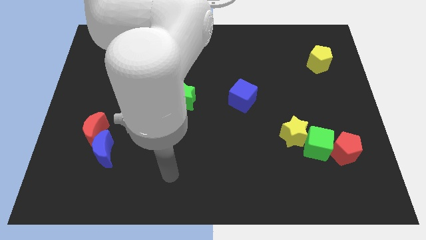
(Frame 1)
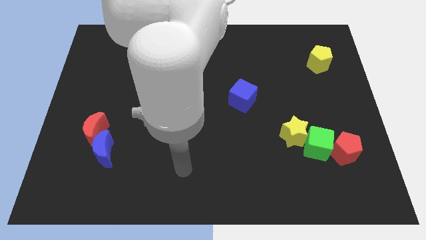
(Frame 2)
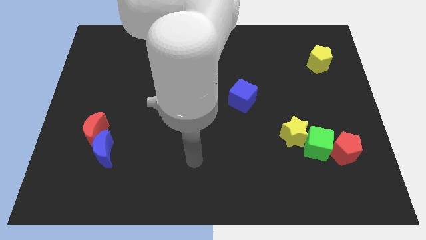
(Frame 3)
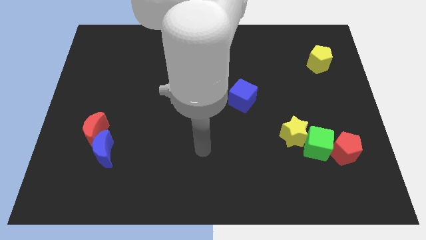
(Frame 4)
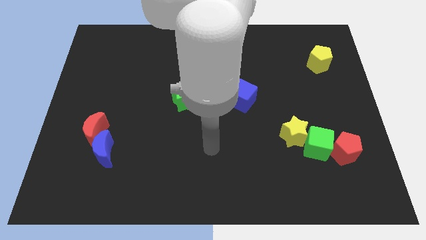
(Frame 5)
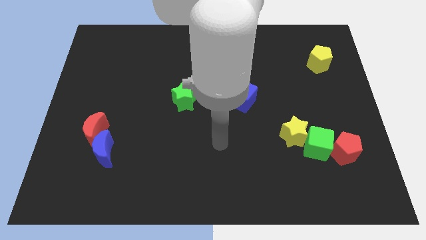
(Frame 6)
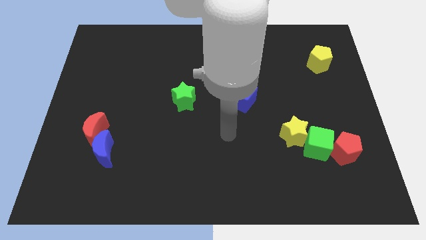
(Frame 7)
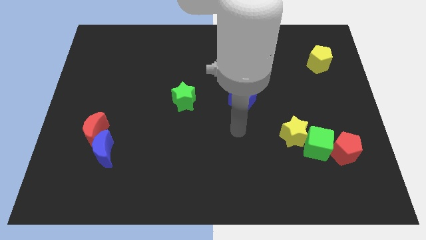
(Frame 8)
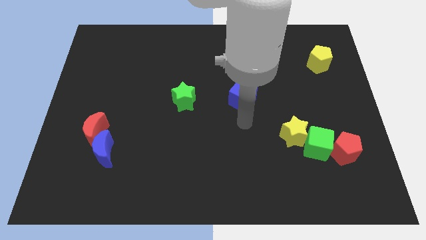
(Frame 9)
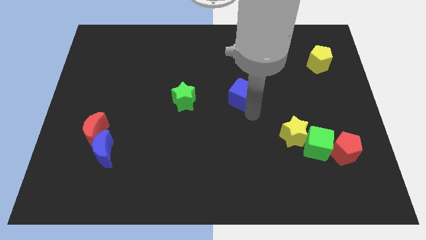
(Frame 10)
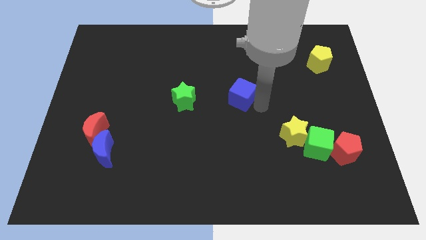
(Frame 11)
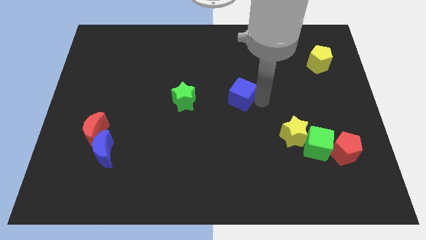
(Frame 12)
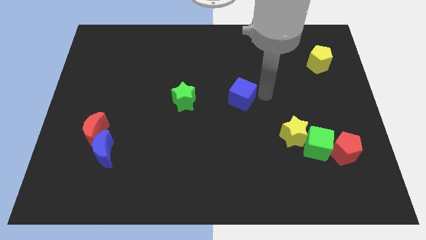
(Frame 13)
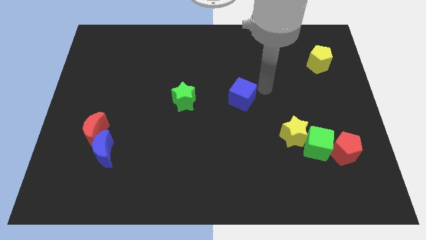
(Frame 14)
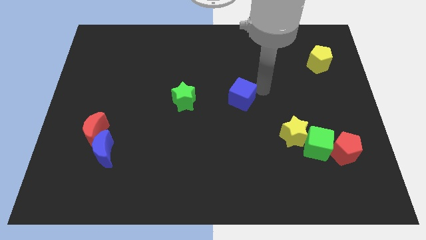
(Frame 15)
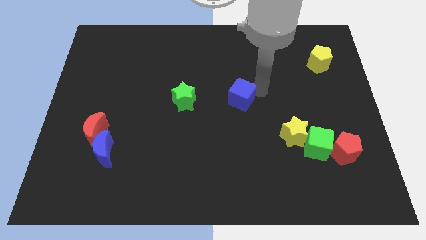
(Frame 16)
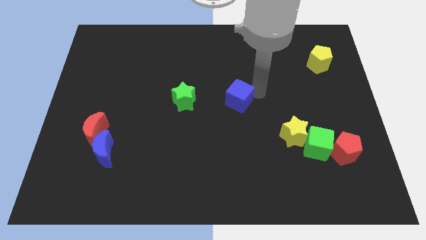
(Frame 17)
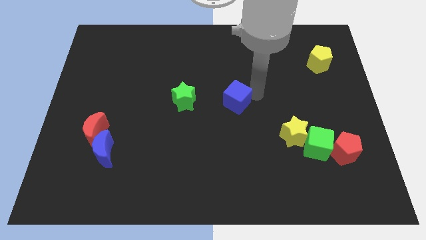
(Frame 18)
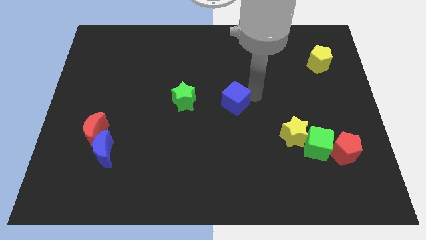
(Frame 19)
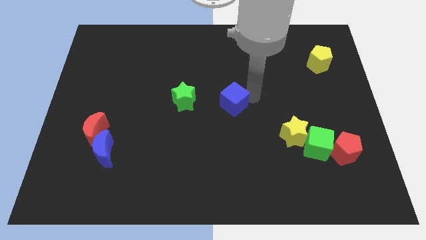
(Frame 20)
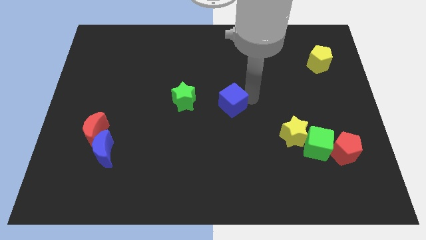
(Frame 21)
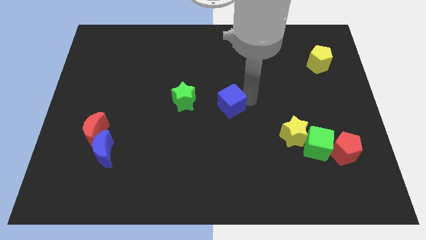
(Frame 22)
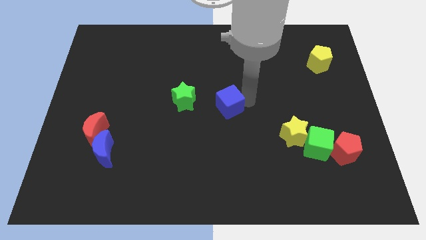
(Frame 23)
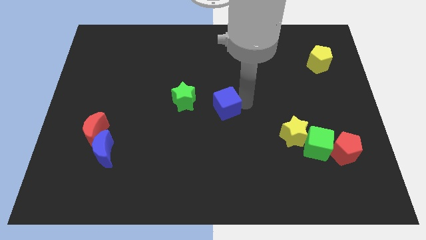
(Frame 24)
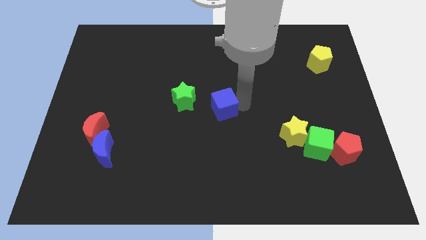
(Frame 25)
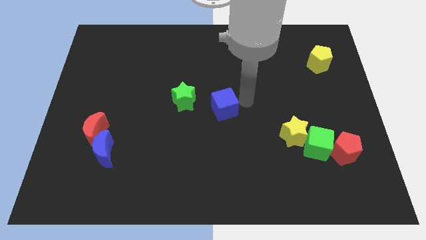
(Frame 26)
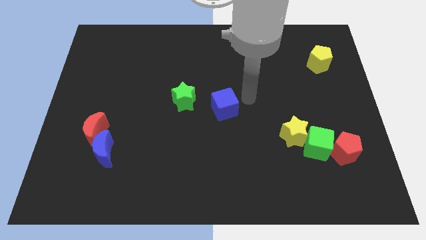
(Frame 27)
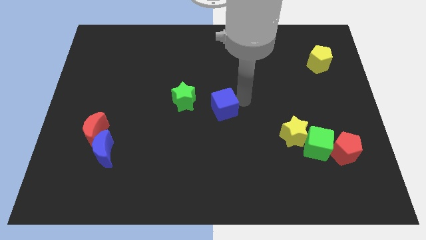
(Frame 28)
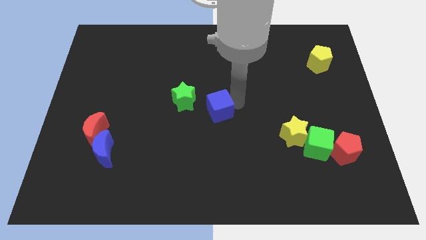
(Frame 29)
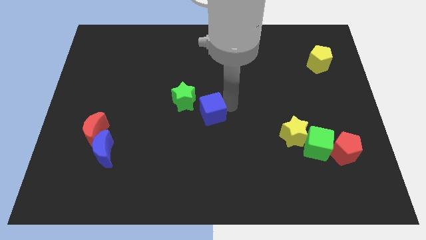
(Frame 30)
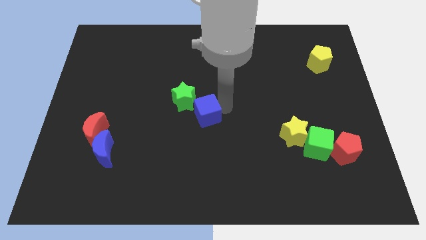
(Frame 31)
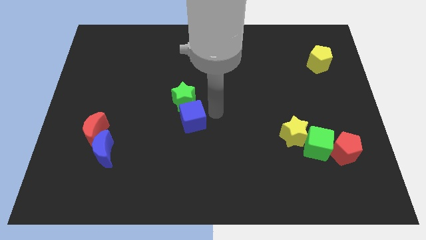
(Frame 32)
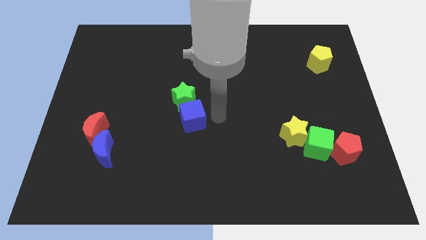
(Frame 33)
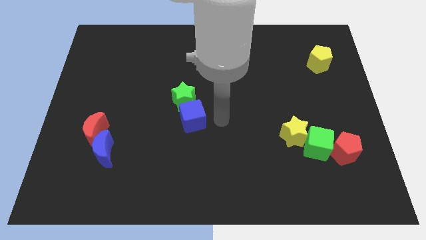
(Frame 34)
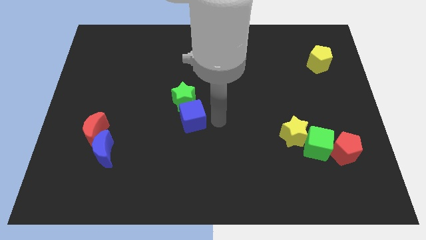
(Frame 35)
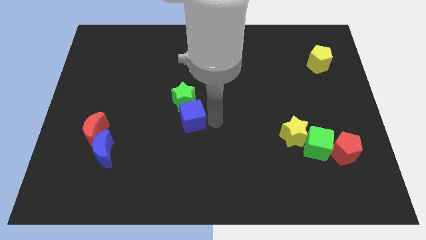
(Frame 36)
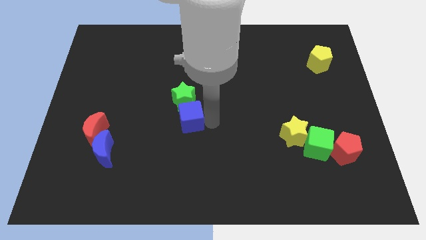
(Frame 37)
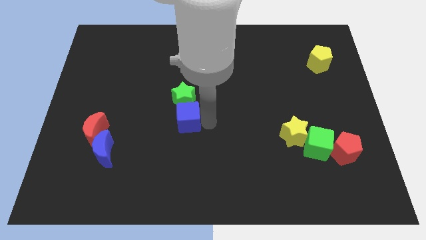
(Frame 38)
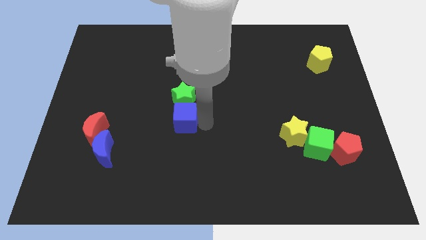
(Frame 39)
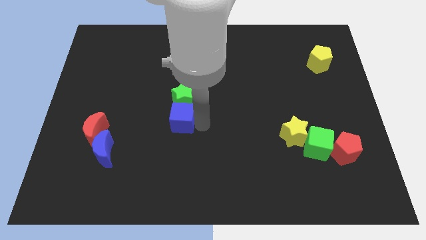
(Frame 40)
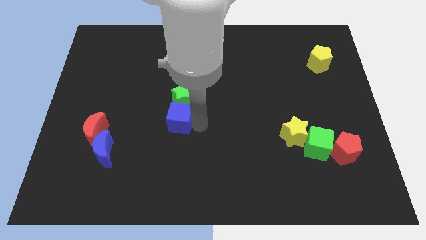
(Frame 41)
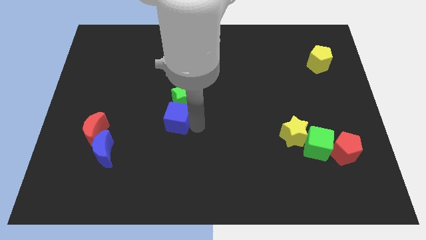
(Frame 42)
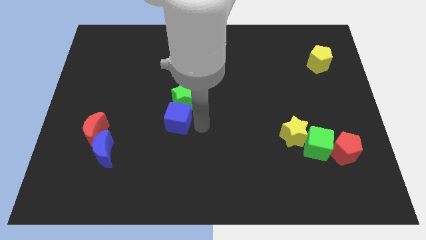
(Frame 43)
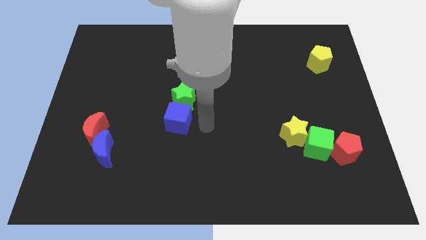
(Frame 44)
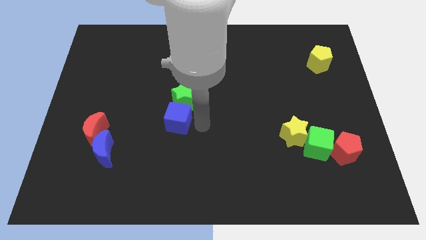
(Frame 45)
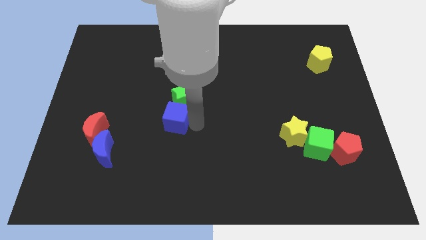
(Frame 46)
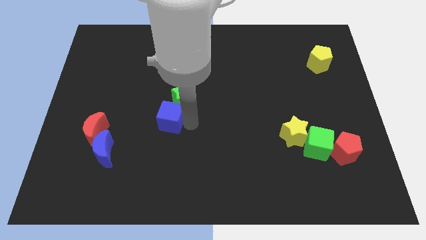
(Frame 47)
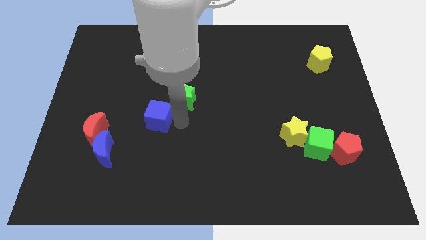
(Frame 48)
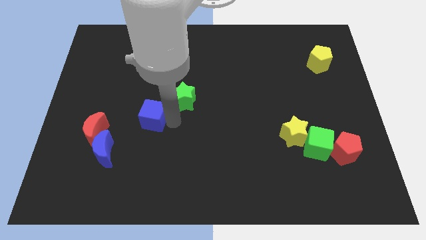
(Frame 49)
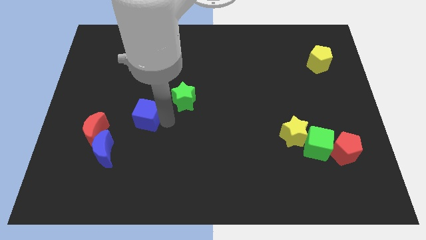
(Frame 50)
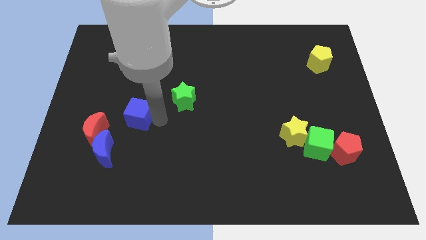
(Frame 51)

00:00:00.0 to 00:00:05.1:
slide the blue cube diagonally up and to the right of the red moon

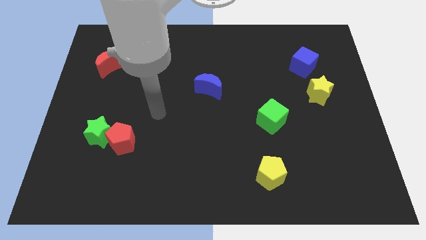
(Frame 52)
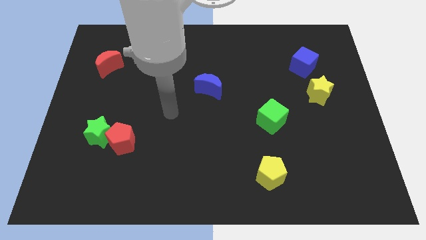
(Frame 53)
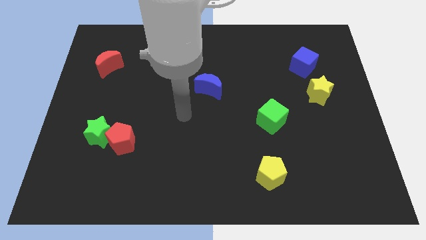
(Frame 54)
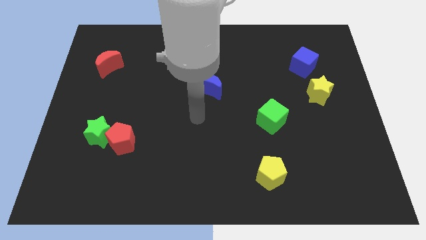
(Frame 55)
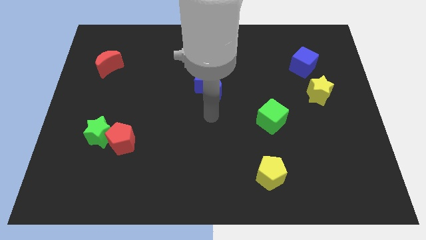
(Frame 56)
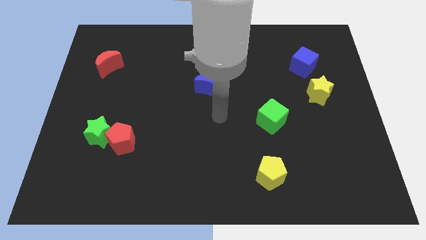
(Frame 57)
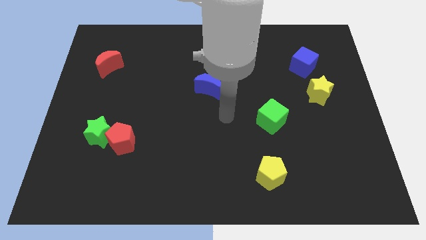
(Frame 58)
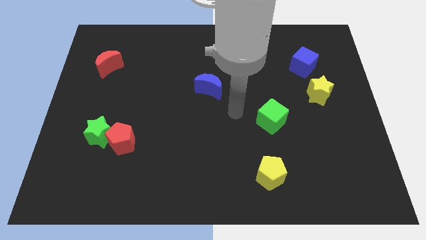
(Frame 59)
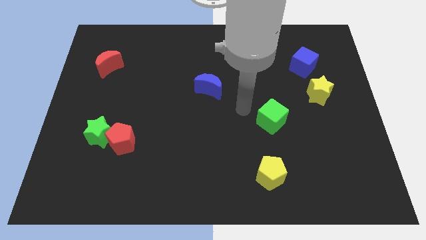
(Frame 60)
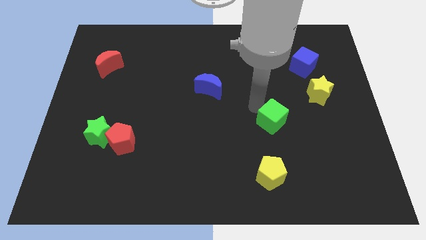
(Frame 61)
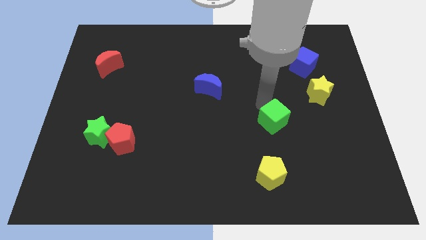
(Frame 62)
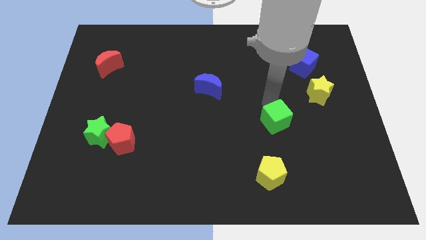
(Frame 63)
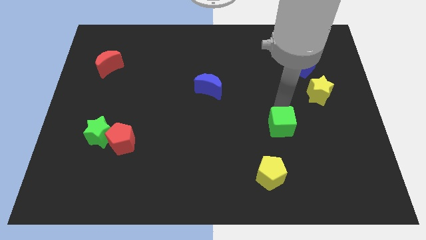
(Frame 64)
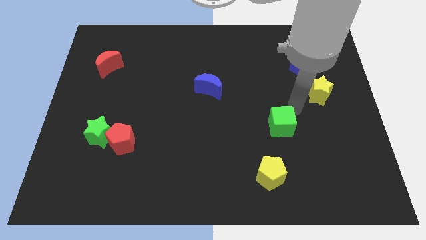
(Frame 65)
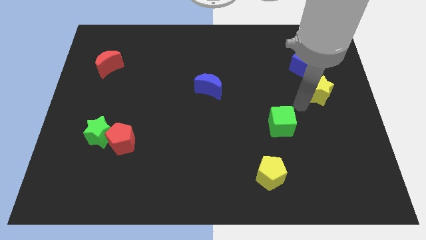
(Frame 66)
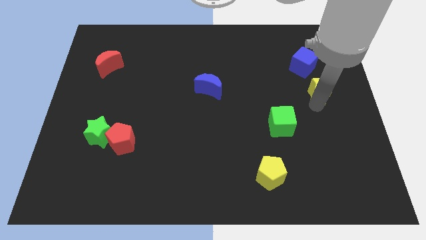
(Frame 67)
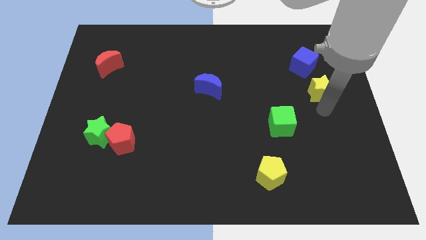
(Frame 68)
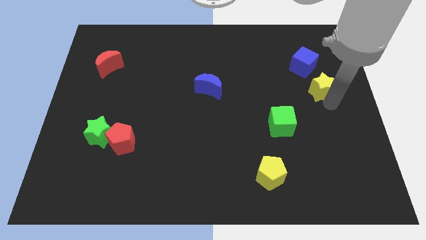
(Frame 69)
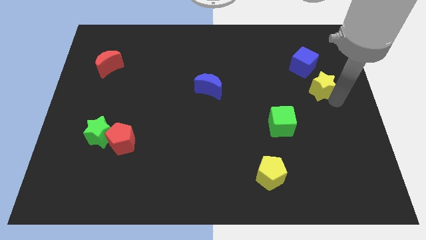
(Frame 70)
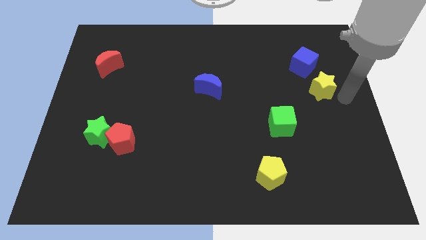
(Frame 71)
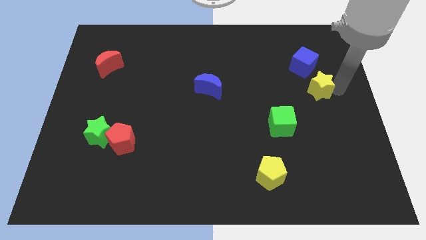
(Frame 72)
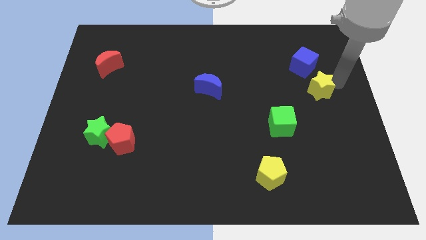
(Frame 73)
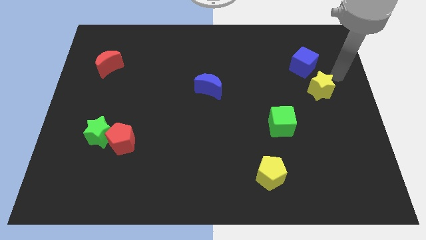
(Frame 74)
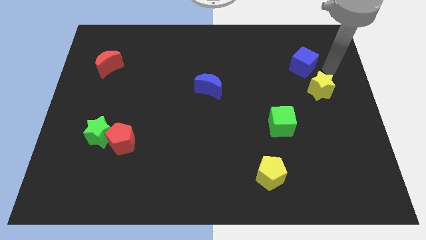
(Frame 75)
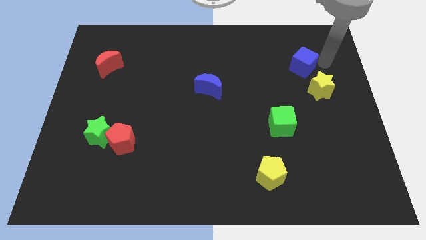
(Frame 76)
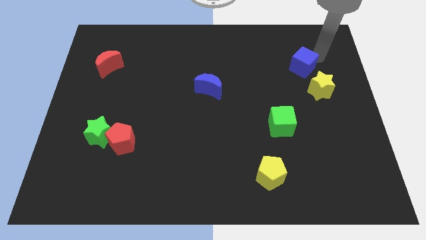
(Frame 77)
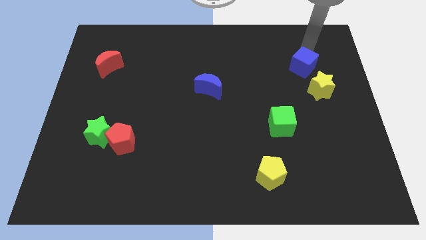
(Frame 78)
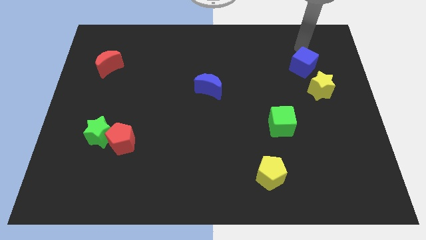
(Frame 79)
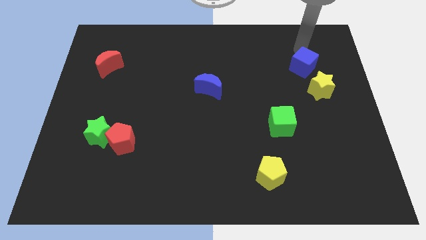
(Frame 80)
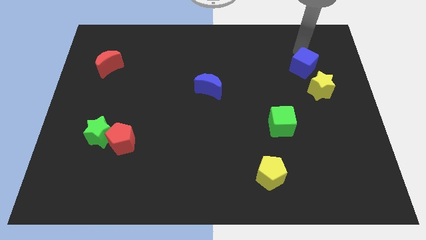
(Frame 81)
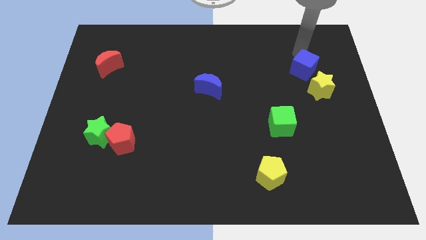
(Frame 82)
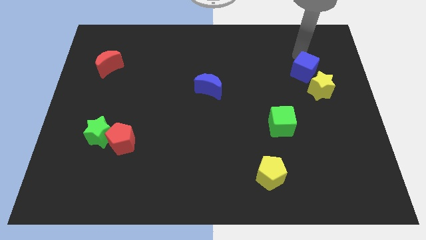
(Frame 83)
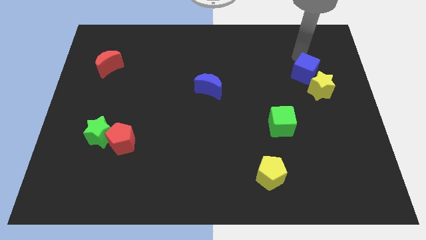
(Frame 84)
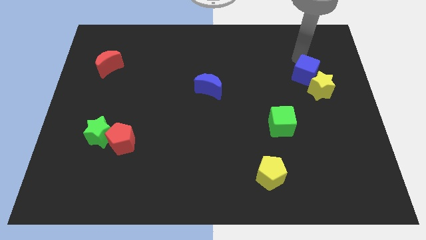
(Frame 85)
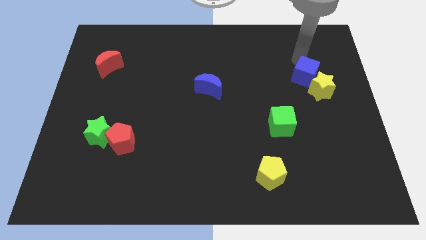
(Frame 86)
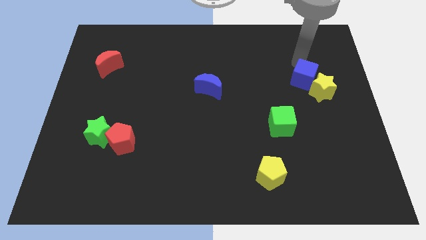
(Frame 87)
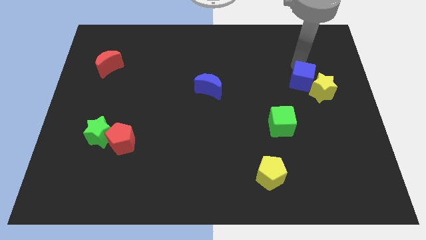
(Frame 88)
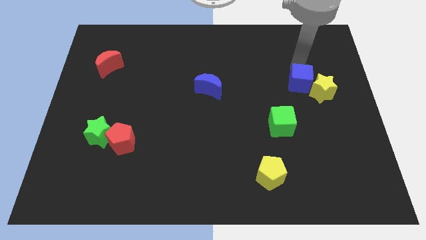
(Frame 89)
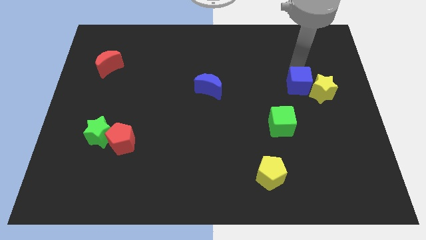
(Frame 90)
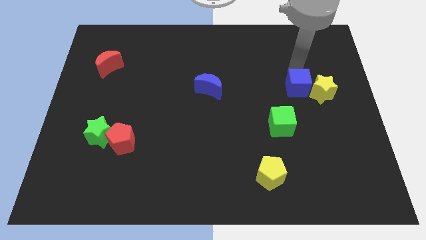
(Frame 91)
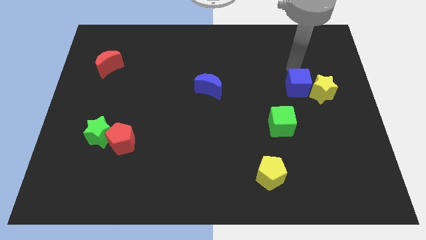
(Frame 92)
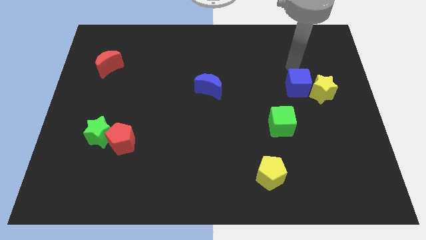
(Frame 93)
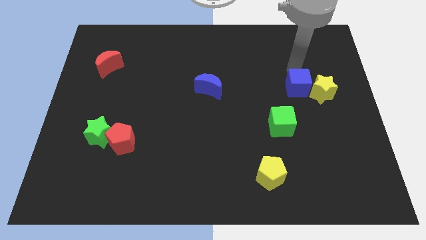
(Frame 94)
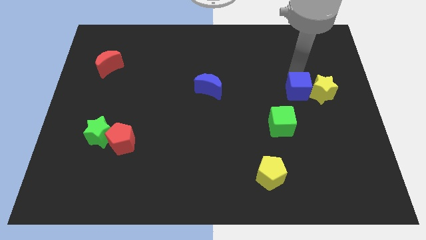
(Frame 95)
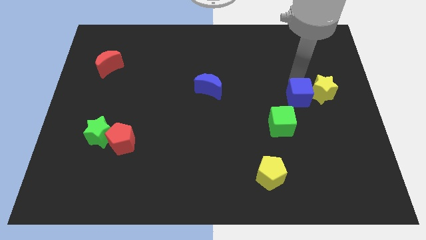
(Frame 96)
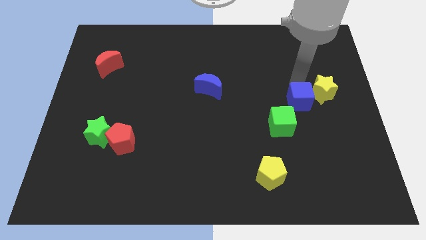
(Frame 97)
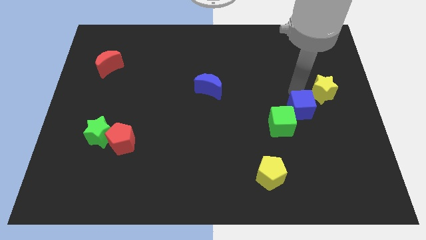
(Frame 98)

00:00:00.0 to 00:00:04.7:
put the blue cube to the right of the green cube
